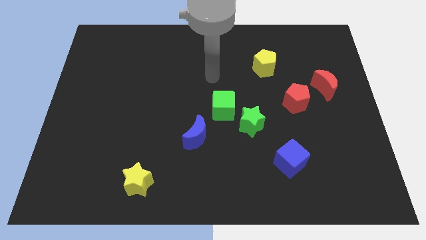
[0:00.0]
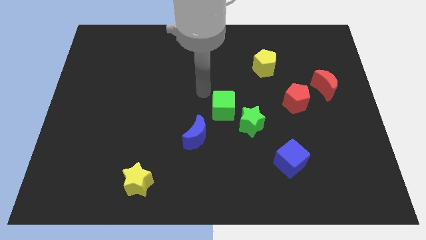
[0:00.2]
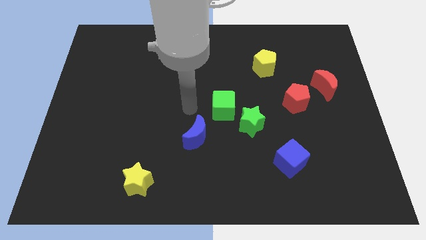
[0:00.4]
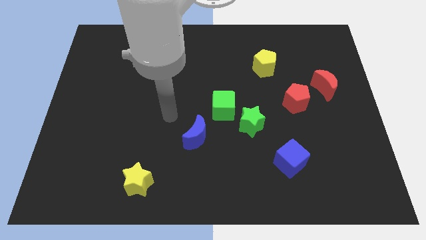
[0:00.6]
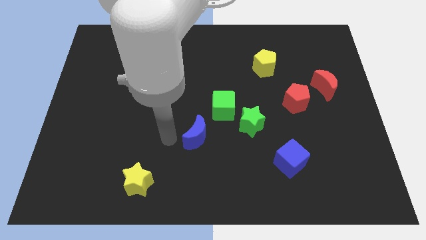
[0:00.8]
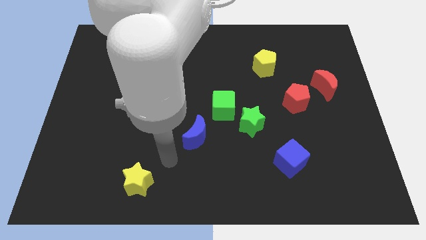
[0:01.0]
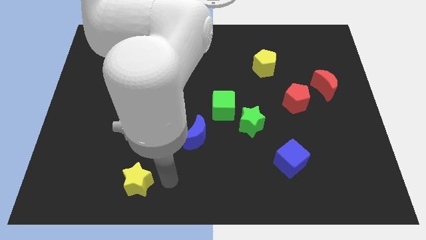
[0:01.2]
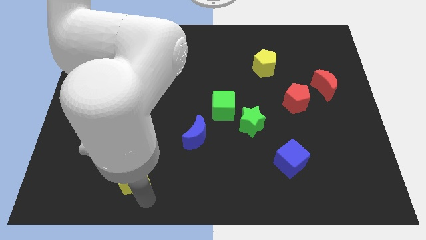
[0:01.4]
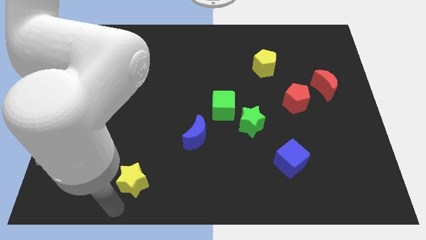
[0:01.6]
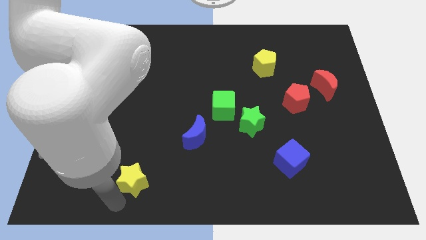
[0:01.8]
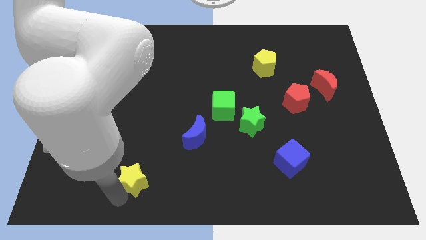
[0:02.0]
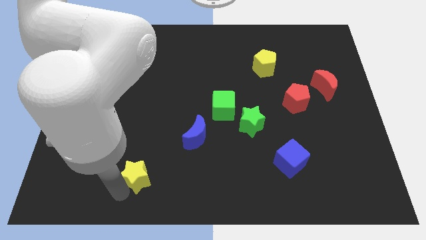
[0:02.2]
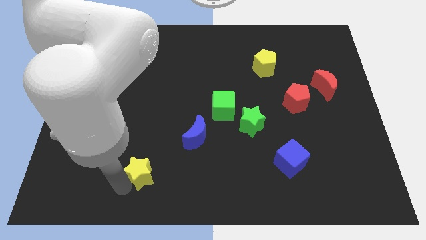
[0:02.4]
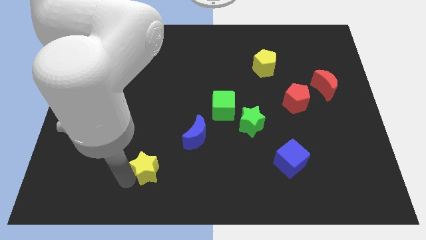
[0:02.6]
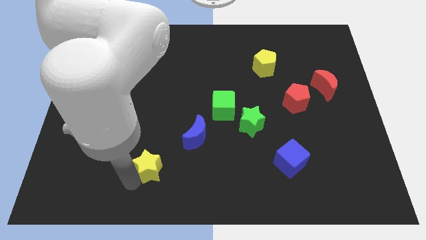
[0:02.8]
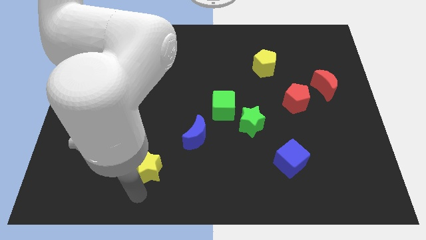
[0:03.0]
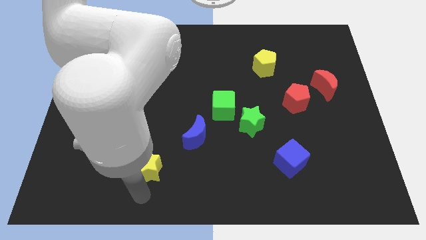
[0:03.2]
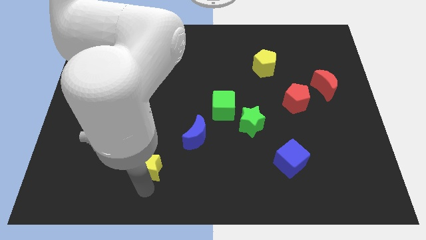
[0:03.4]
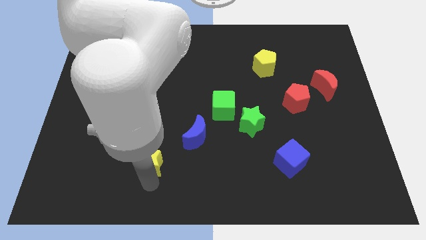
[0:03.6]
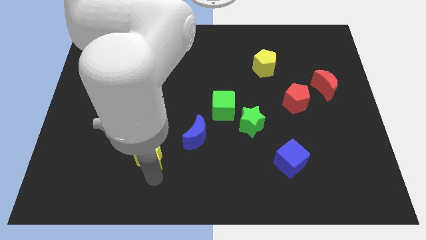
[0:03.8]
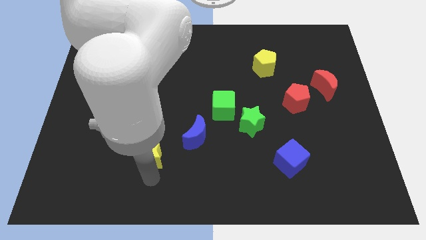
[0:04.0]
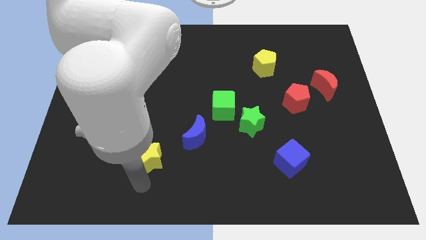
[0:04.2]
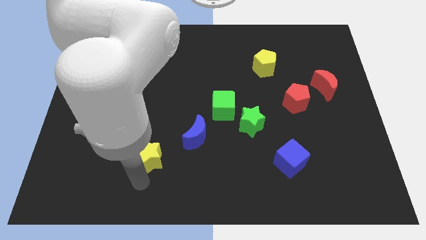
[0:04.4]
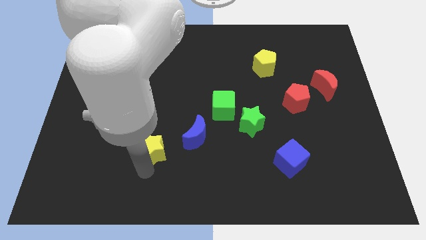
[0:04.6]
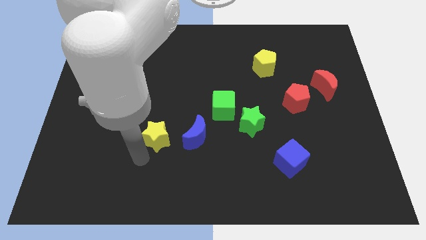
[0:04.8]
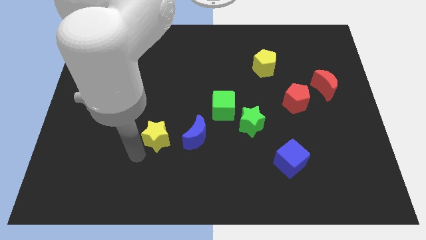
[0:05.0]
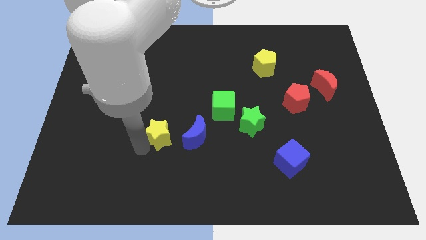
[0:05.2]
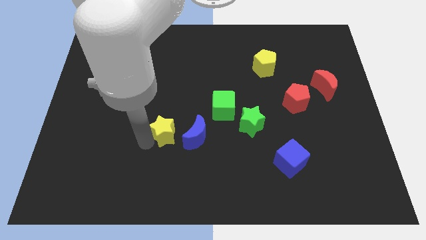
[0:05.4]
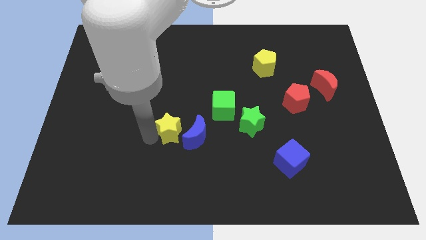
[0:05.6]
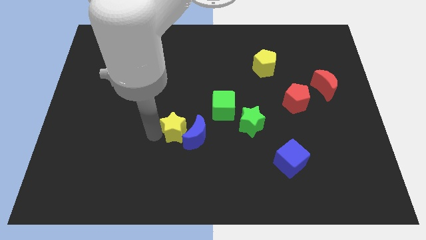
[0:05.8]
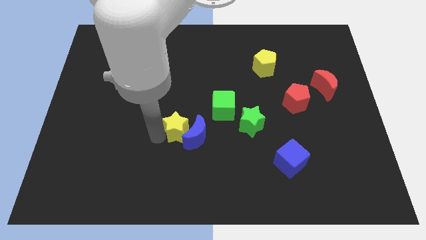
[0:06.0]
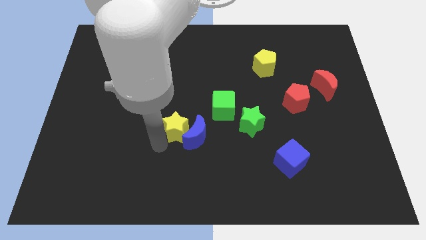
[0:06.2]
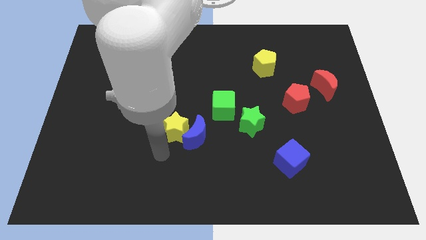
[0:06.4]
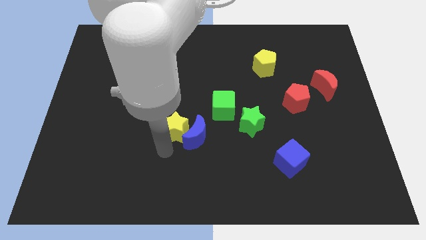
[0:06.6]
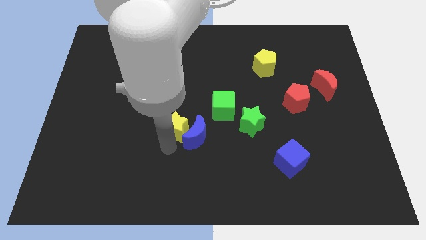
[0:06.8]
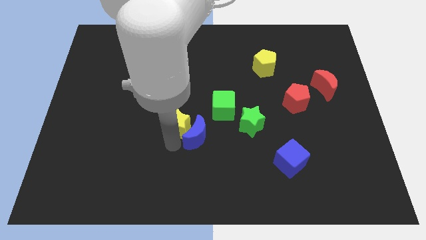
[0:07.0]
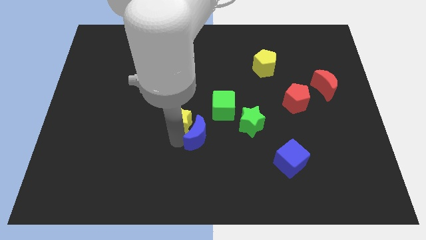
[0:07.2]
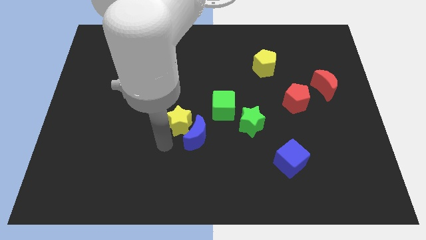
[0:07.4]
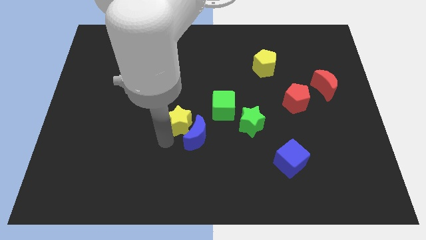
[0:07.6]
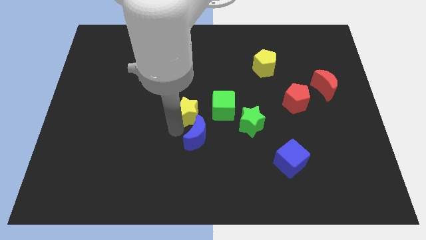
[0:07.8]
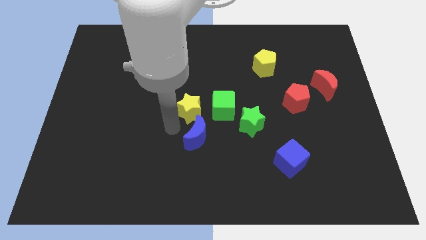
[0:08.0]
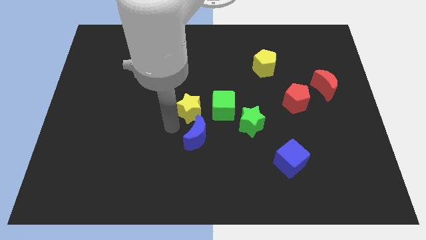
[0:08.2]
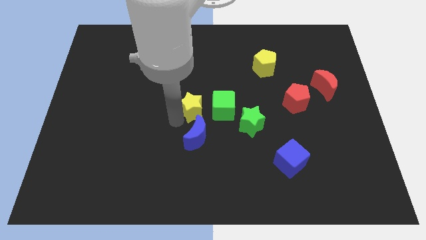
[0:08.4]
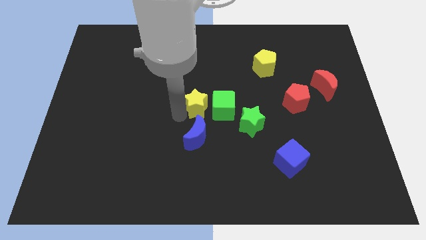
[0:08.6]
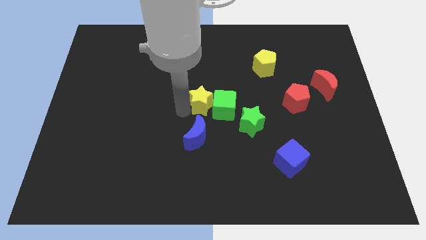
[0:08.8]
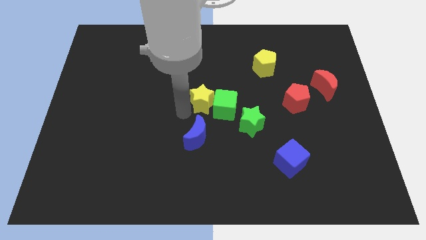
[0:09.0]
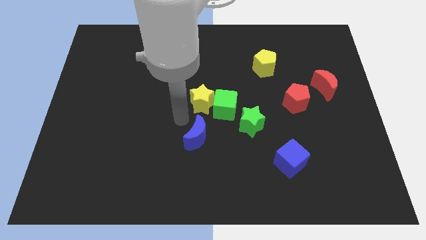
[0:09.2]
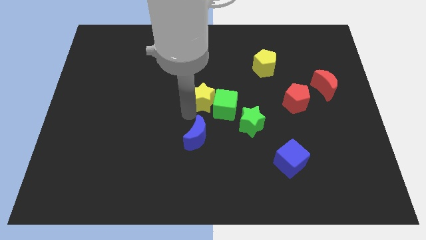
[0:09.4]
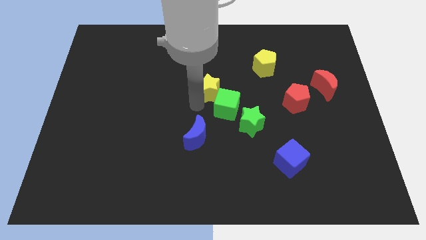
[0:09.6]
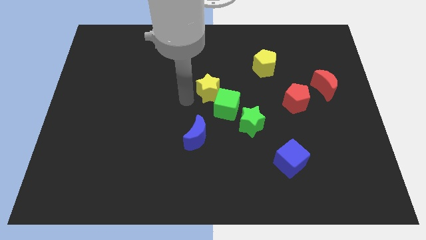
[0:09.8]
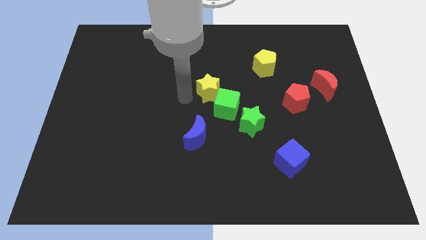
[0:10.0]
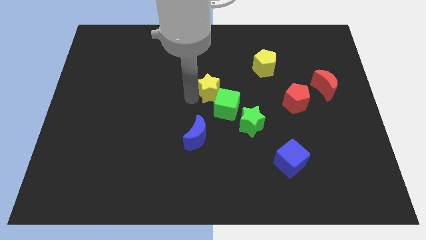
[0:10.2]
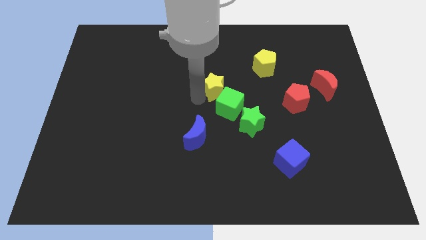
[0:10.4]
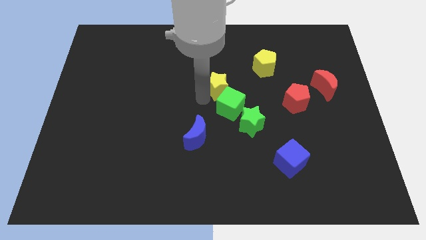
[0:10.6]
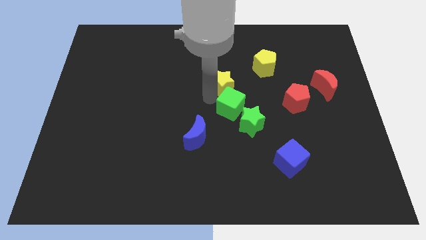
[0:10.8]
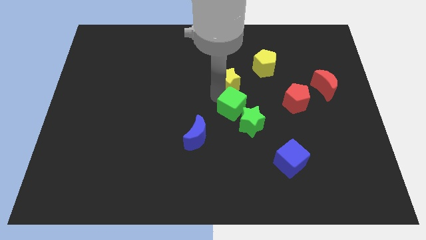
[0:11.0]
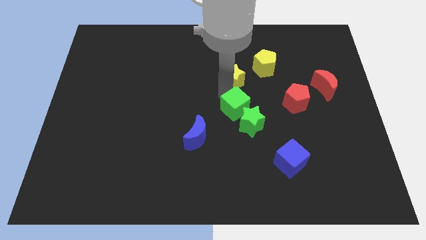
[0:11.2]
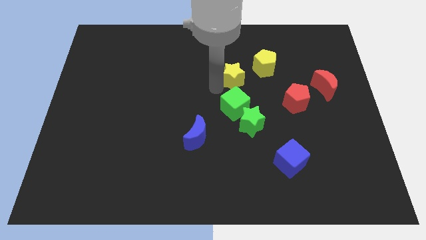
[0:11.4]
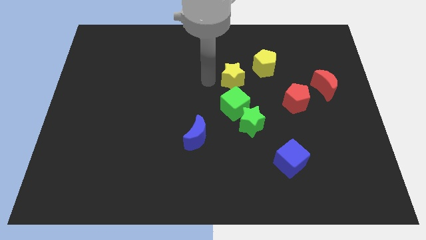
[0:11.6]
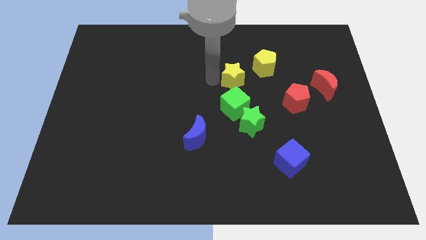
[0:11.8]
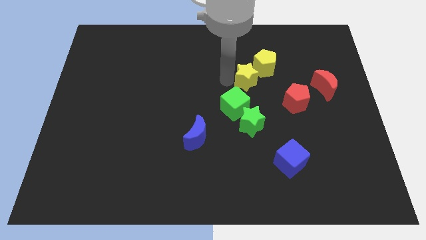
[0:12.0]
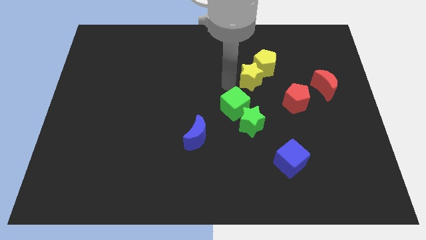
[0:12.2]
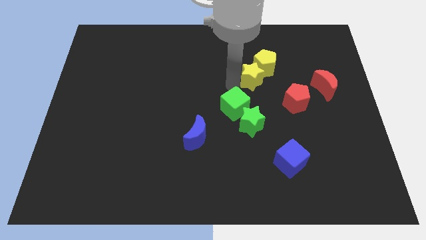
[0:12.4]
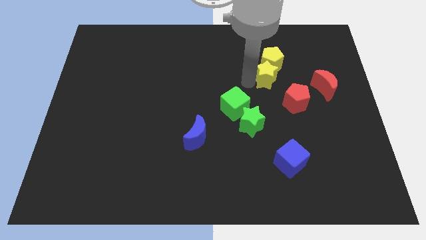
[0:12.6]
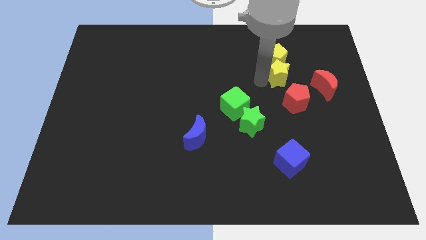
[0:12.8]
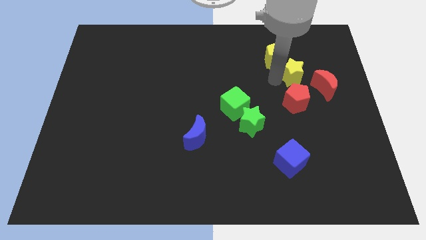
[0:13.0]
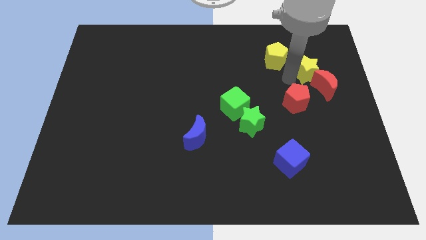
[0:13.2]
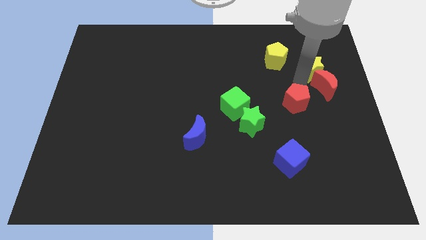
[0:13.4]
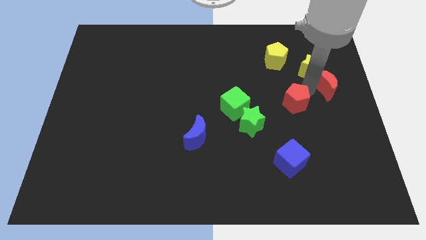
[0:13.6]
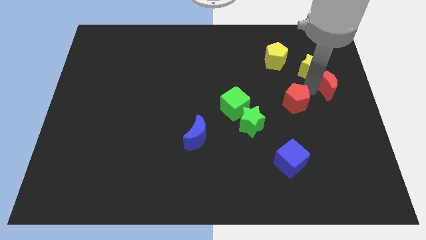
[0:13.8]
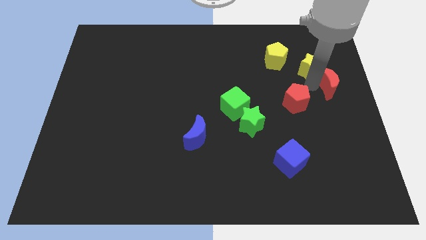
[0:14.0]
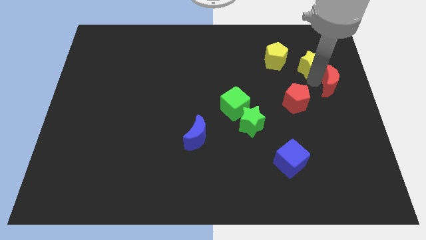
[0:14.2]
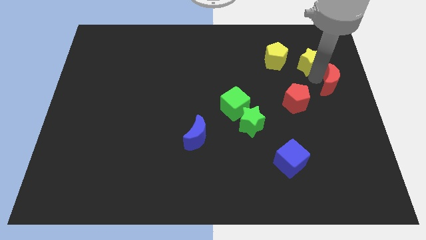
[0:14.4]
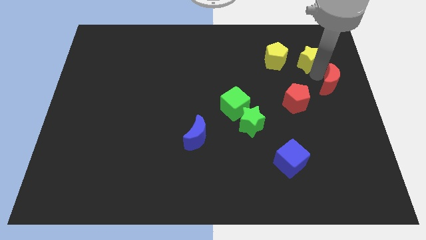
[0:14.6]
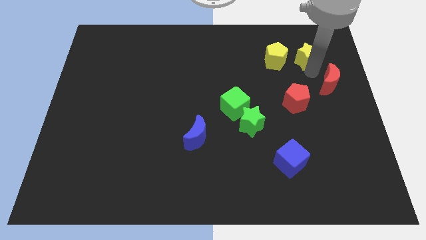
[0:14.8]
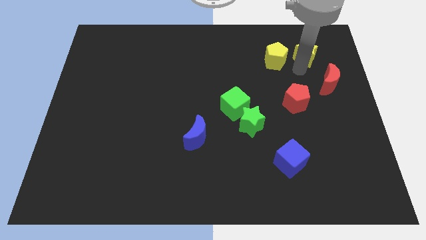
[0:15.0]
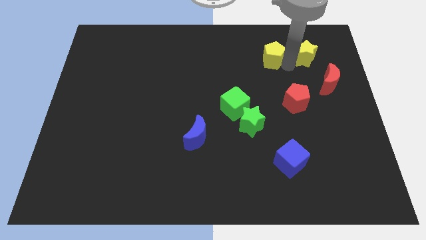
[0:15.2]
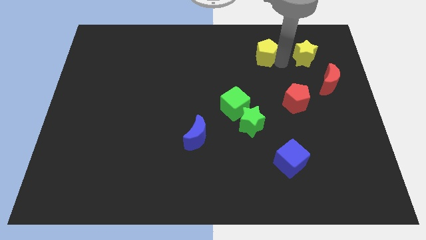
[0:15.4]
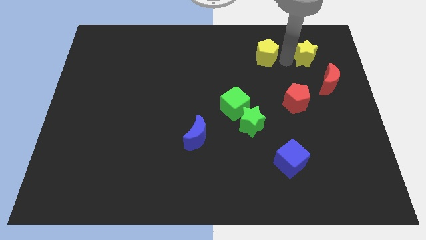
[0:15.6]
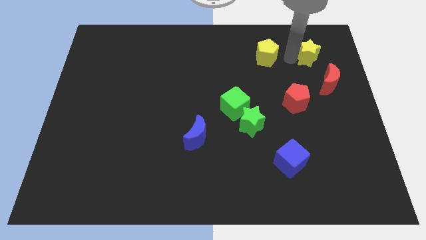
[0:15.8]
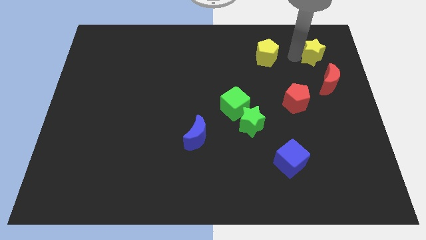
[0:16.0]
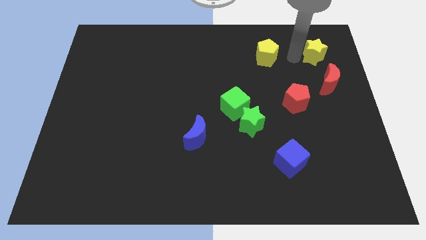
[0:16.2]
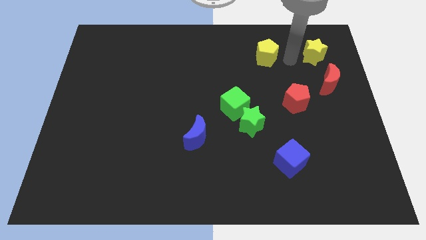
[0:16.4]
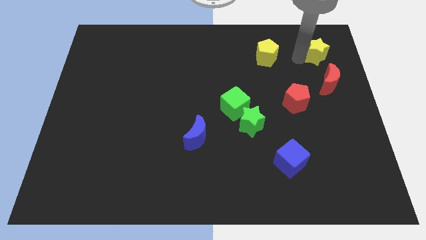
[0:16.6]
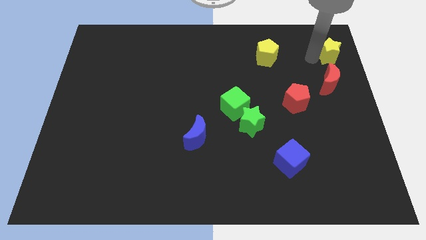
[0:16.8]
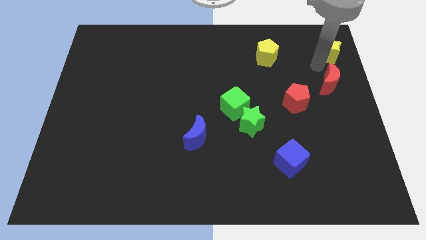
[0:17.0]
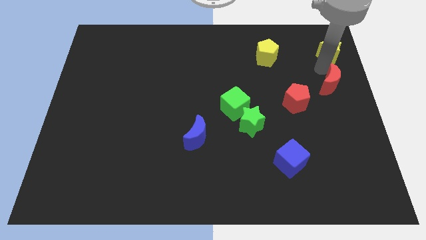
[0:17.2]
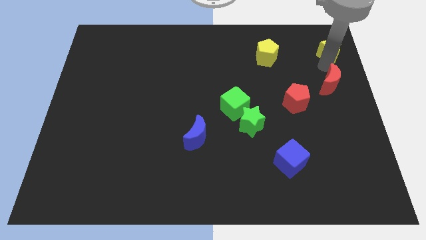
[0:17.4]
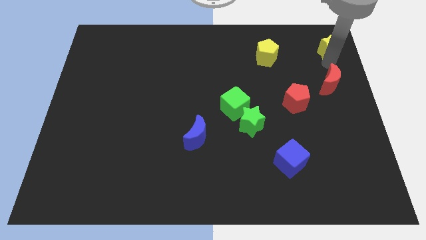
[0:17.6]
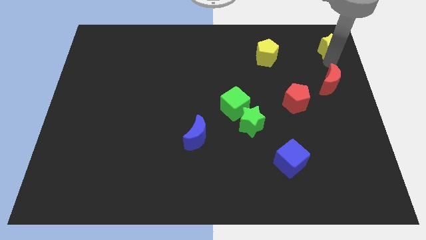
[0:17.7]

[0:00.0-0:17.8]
put the yellow star to the top right of the board
